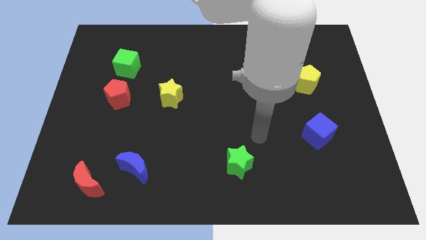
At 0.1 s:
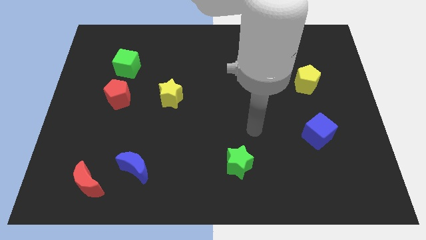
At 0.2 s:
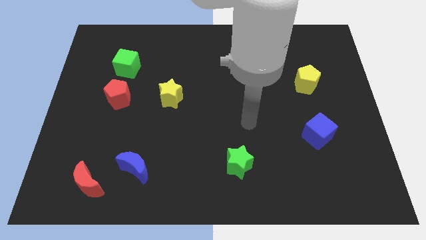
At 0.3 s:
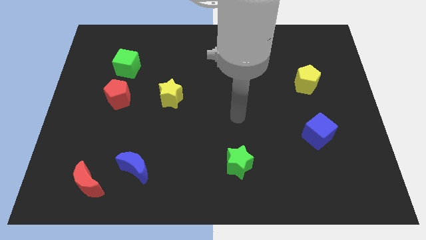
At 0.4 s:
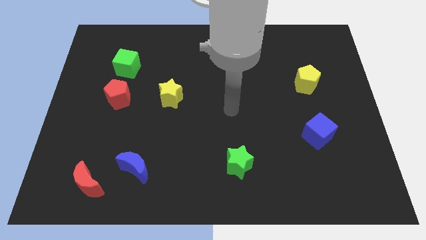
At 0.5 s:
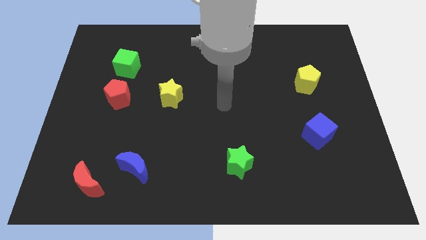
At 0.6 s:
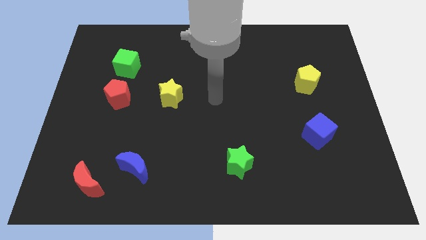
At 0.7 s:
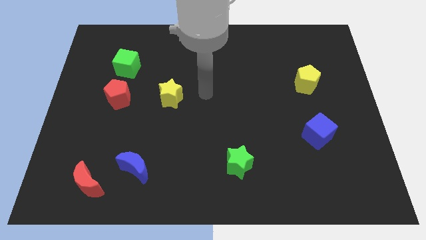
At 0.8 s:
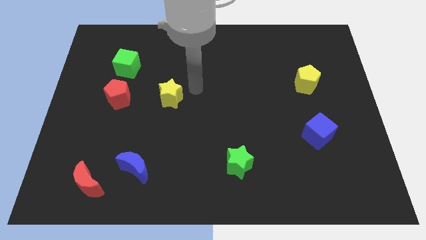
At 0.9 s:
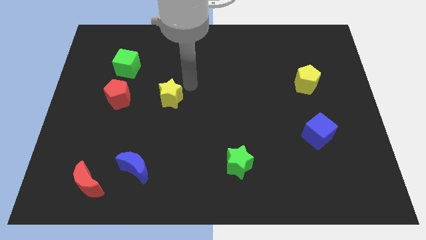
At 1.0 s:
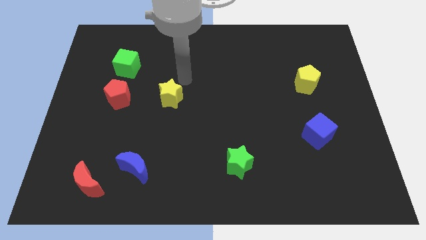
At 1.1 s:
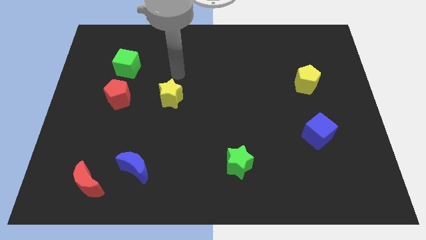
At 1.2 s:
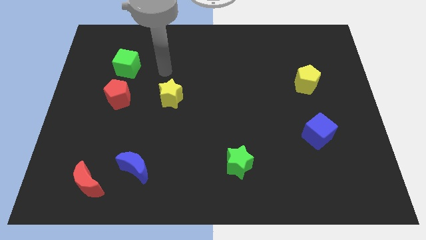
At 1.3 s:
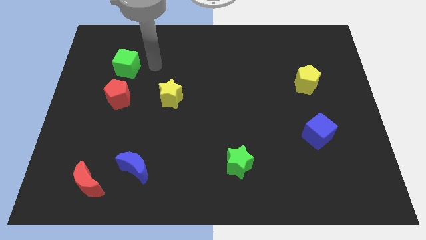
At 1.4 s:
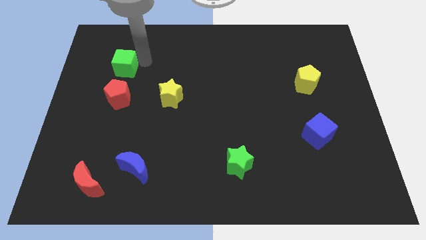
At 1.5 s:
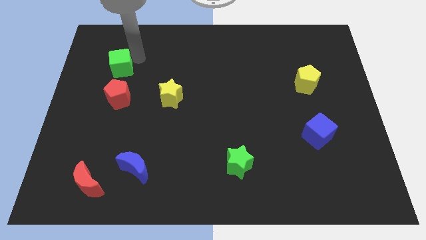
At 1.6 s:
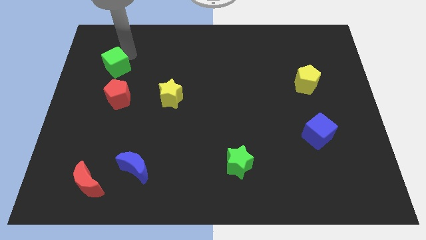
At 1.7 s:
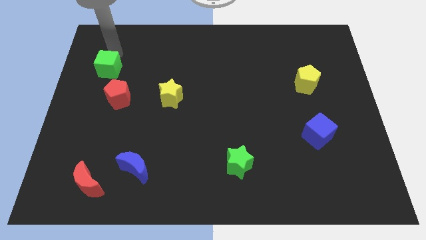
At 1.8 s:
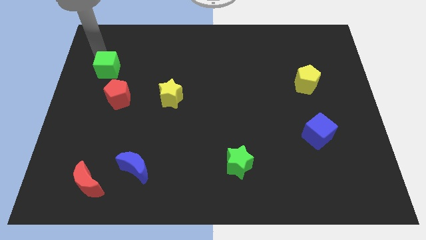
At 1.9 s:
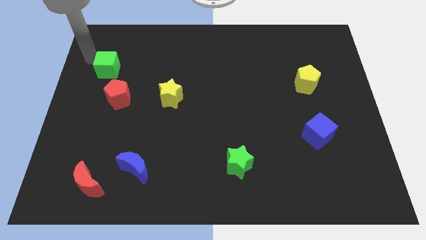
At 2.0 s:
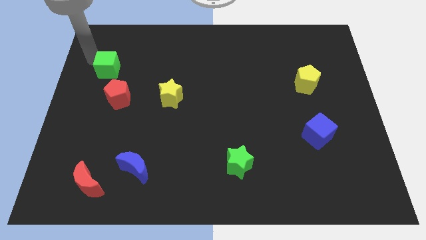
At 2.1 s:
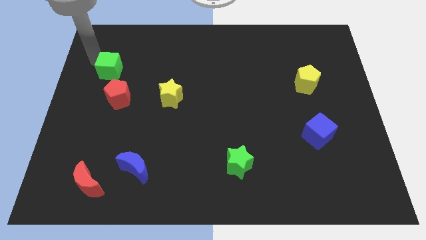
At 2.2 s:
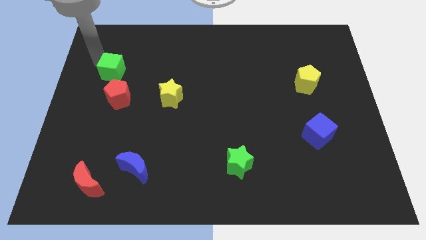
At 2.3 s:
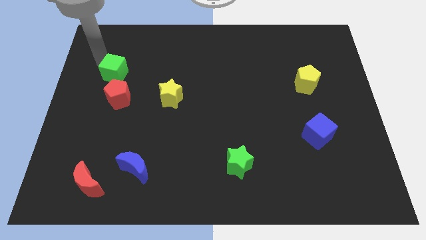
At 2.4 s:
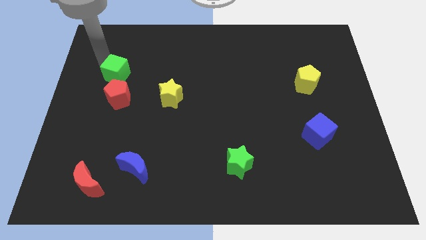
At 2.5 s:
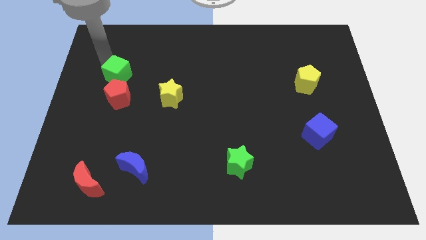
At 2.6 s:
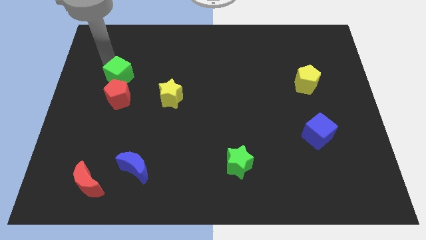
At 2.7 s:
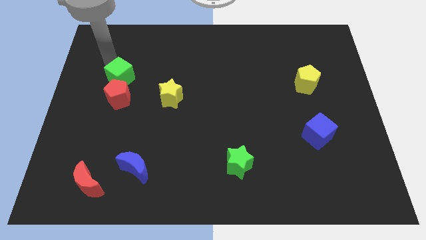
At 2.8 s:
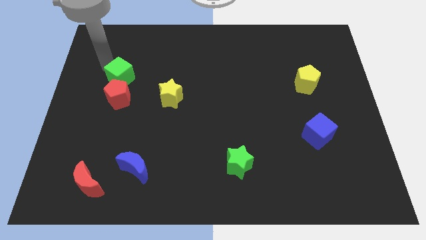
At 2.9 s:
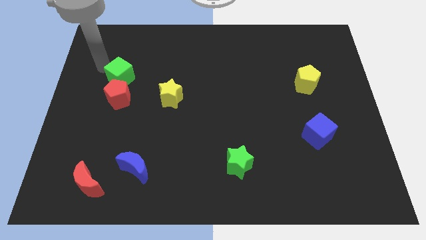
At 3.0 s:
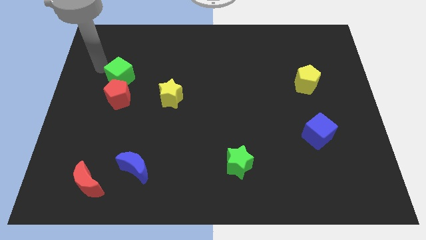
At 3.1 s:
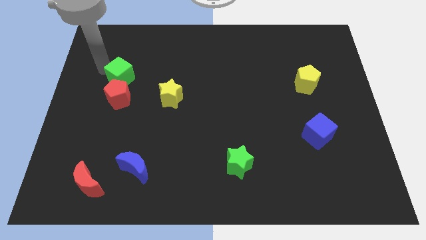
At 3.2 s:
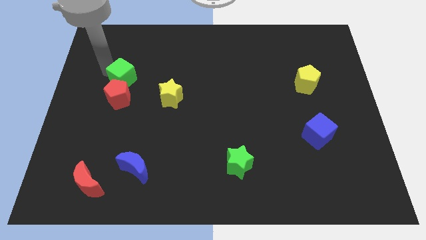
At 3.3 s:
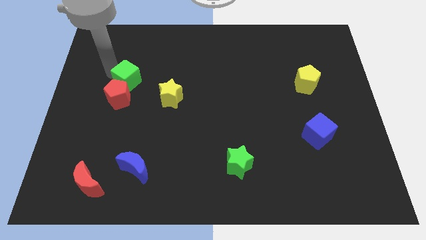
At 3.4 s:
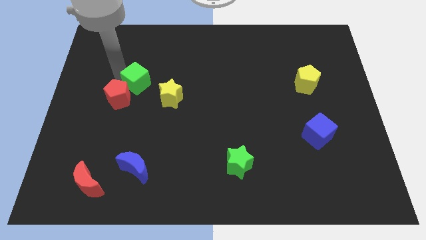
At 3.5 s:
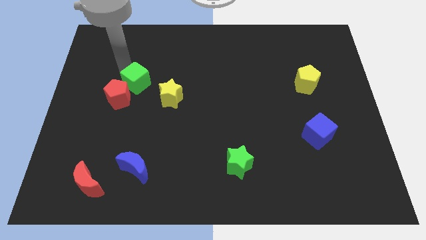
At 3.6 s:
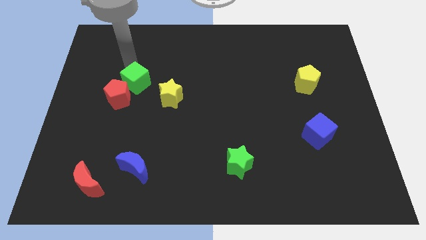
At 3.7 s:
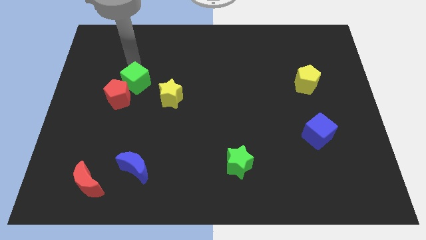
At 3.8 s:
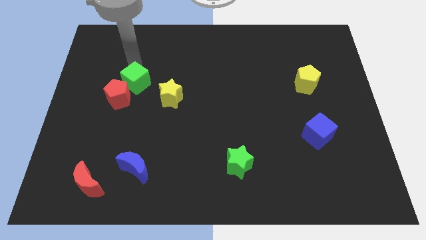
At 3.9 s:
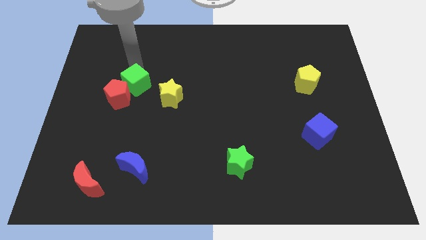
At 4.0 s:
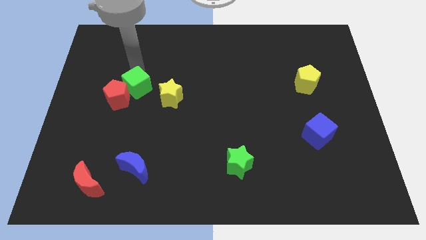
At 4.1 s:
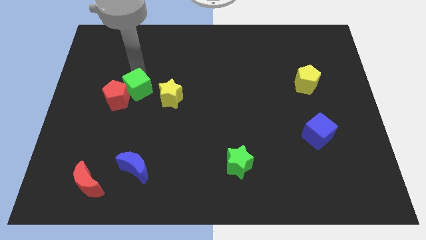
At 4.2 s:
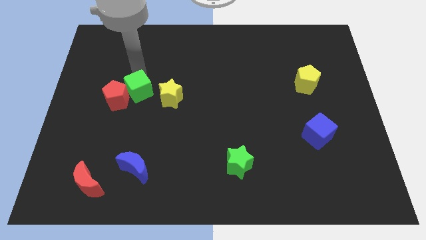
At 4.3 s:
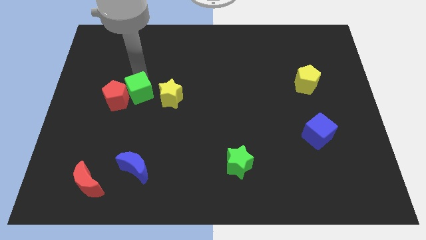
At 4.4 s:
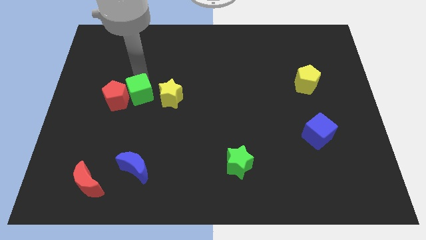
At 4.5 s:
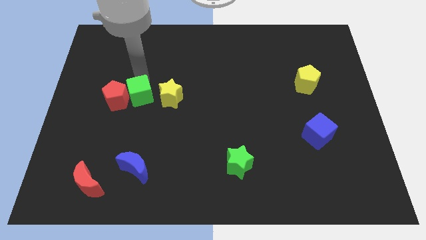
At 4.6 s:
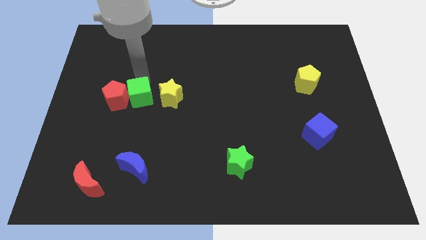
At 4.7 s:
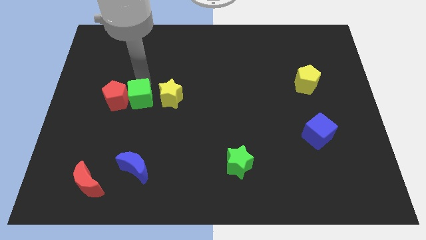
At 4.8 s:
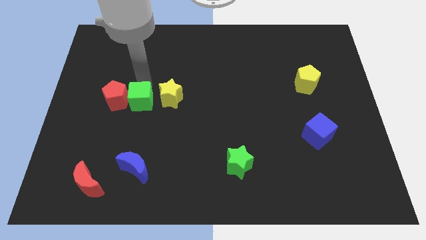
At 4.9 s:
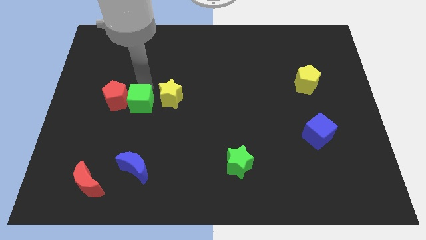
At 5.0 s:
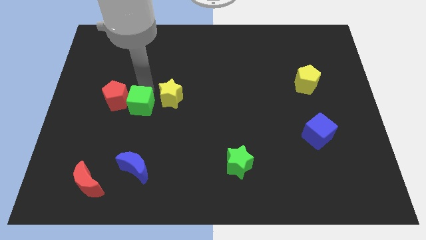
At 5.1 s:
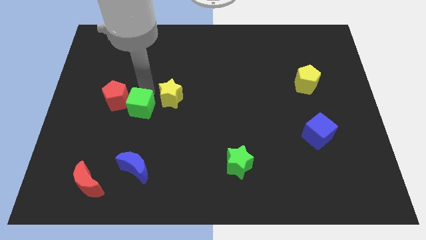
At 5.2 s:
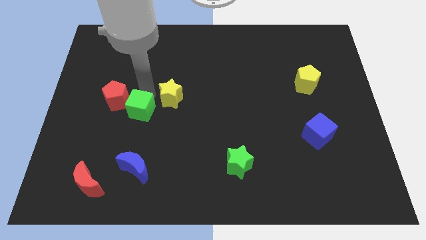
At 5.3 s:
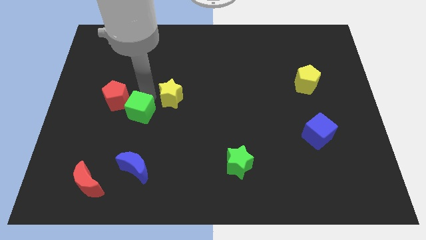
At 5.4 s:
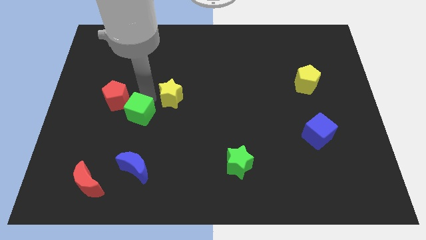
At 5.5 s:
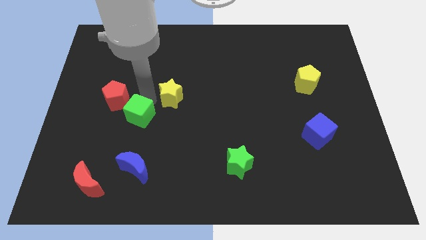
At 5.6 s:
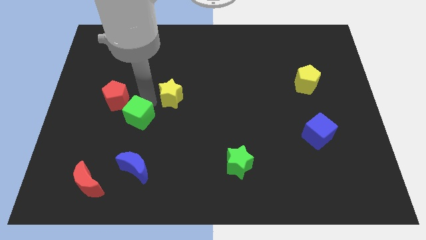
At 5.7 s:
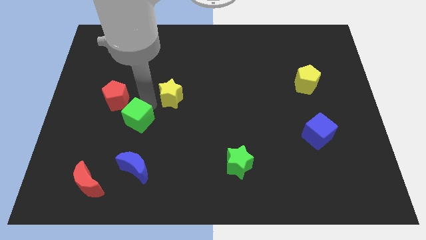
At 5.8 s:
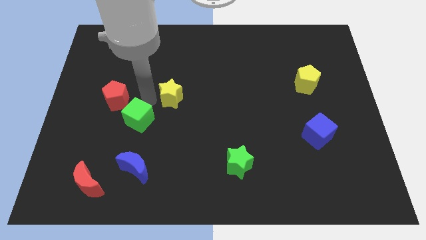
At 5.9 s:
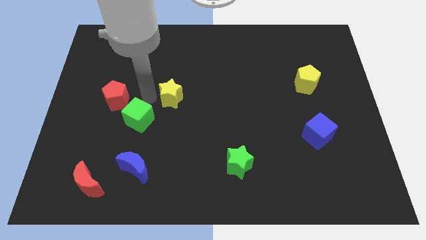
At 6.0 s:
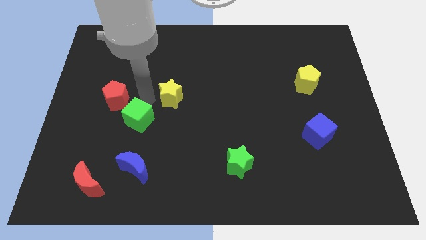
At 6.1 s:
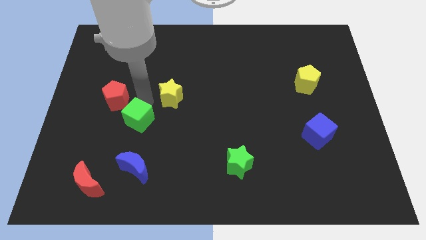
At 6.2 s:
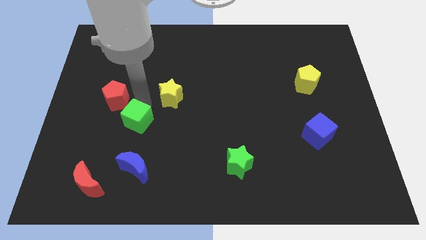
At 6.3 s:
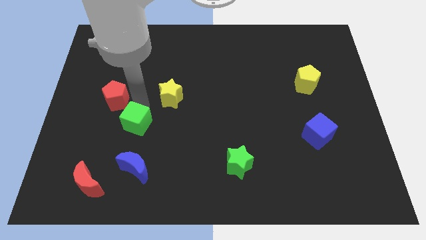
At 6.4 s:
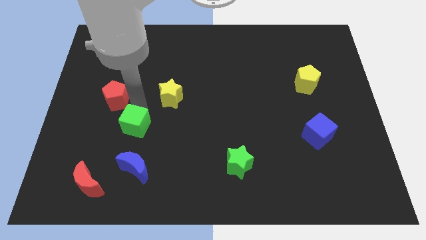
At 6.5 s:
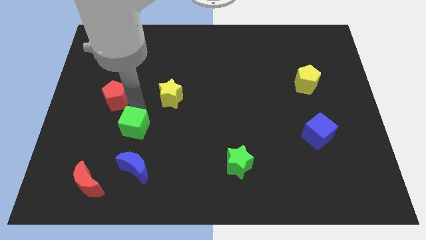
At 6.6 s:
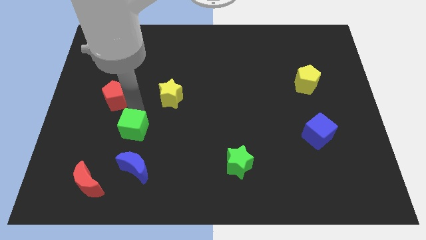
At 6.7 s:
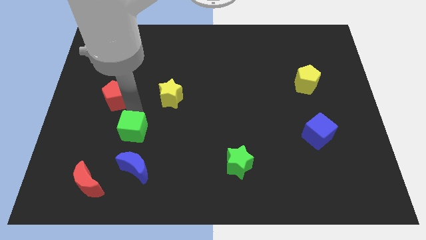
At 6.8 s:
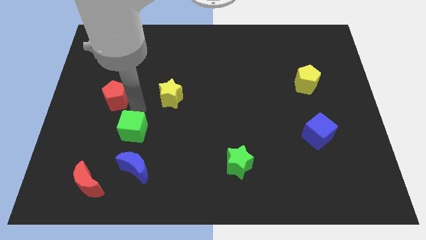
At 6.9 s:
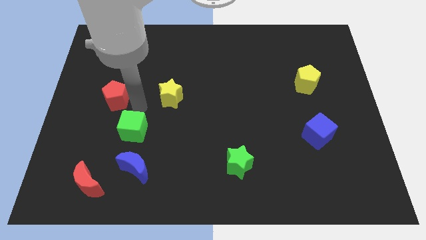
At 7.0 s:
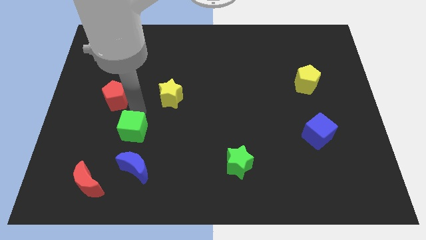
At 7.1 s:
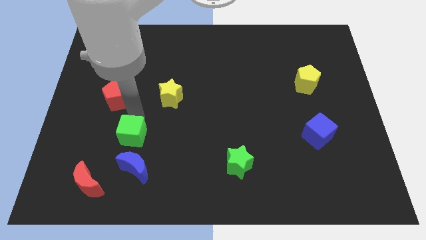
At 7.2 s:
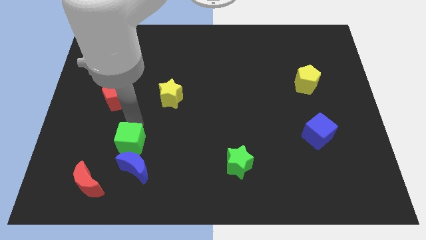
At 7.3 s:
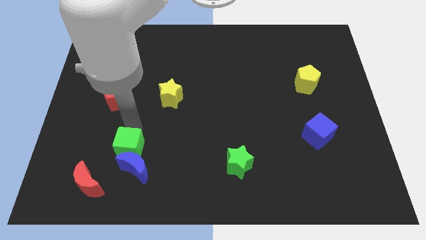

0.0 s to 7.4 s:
push the green cube towards the blue moon
